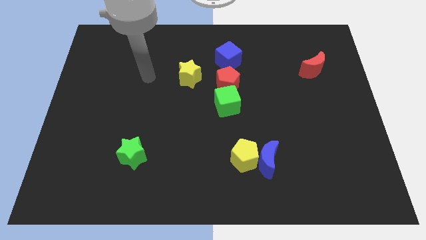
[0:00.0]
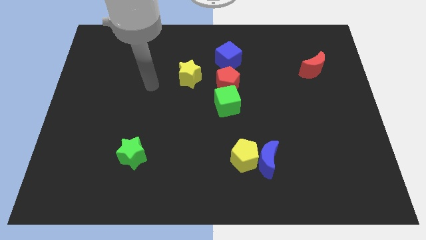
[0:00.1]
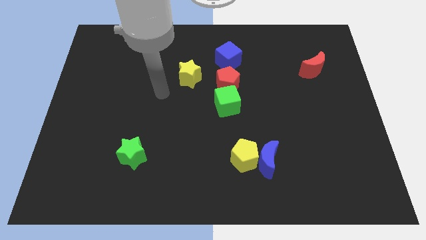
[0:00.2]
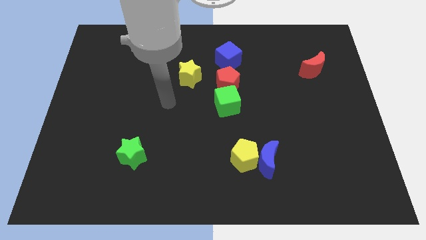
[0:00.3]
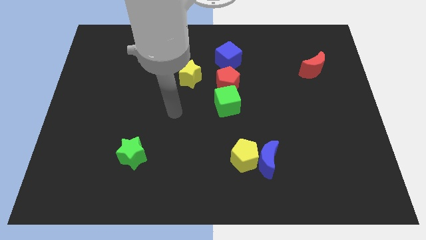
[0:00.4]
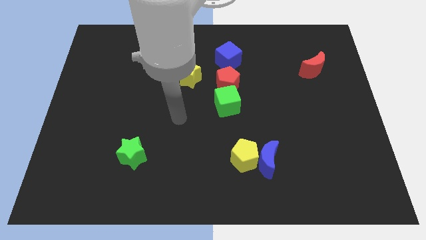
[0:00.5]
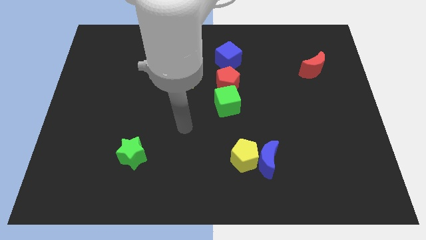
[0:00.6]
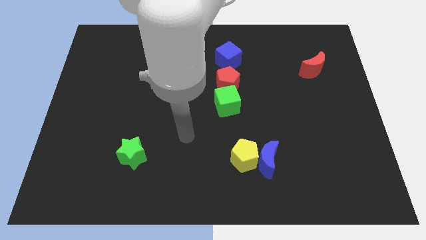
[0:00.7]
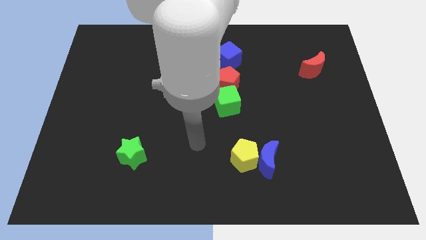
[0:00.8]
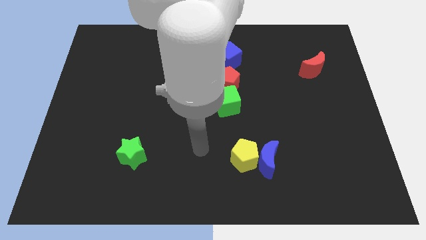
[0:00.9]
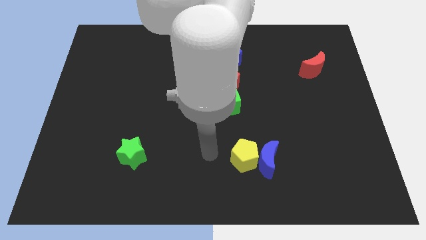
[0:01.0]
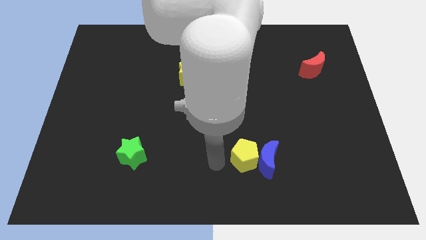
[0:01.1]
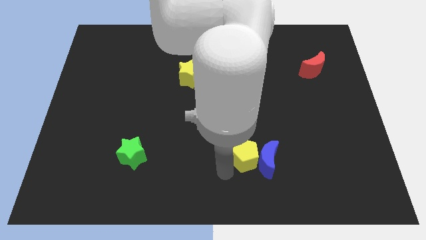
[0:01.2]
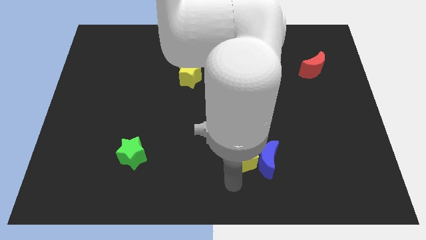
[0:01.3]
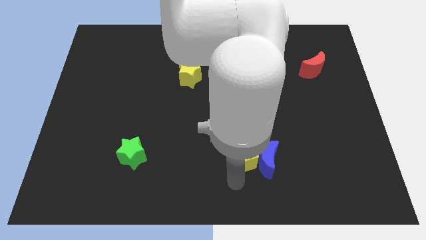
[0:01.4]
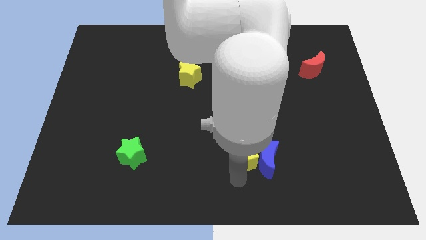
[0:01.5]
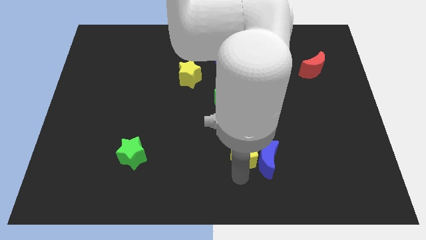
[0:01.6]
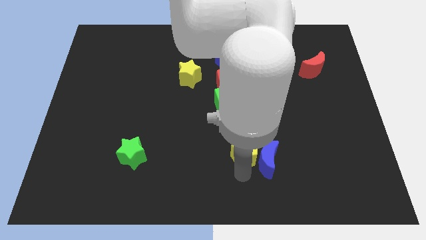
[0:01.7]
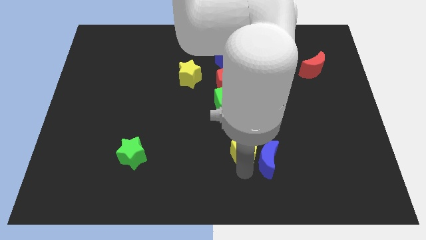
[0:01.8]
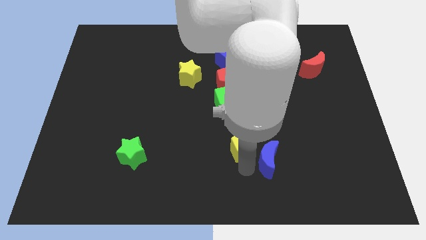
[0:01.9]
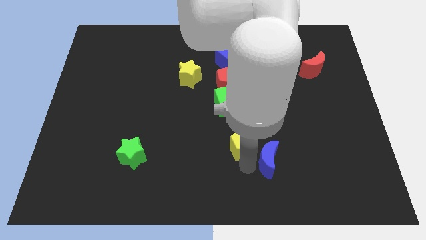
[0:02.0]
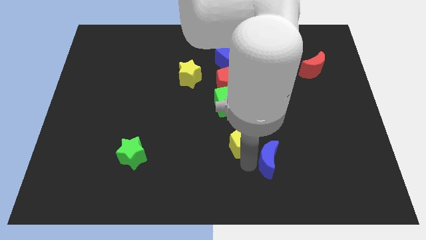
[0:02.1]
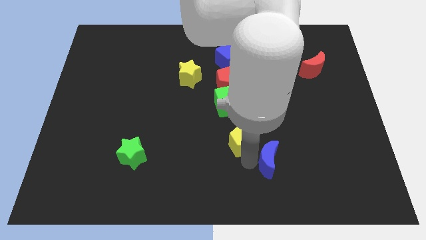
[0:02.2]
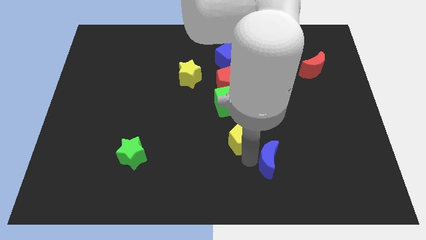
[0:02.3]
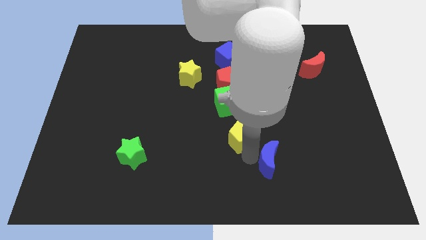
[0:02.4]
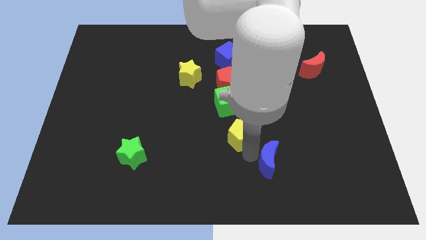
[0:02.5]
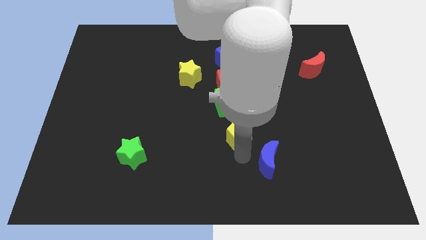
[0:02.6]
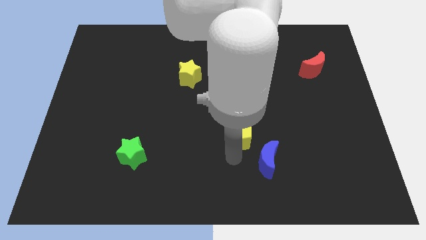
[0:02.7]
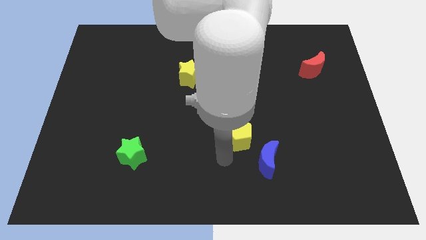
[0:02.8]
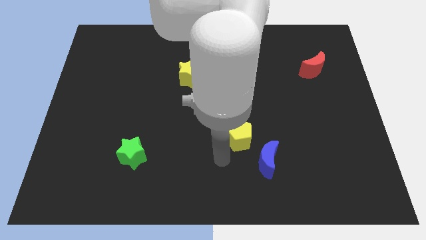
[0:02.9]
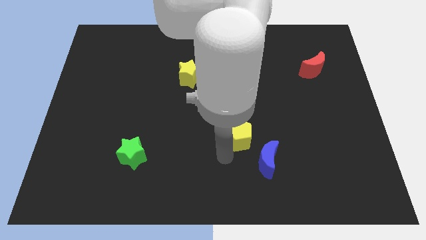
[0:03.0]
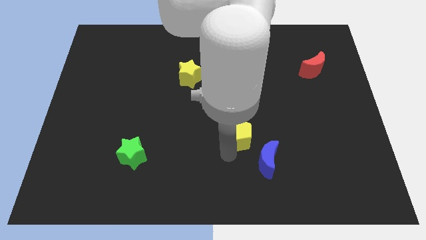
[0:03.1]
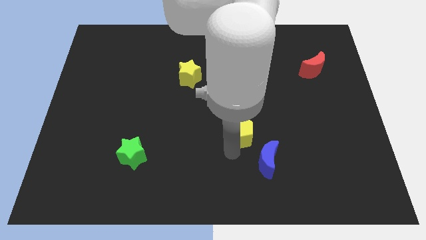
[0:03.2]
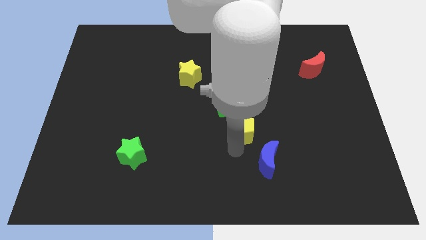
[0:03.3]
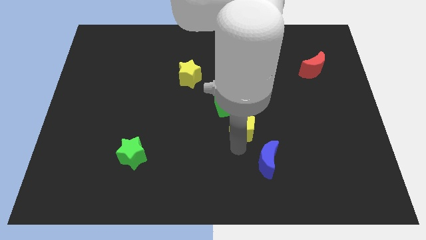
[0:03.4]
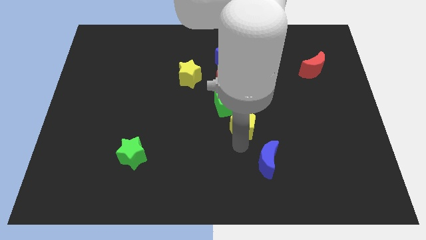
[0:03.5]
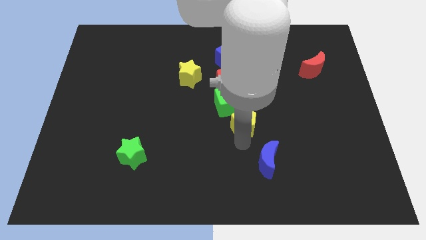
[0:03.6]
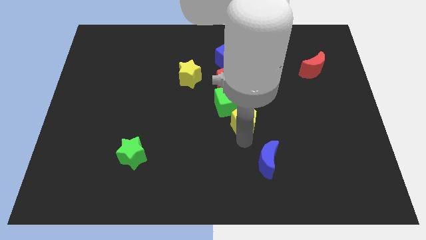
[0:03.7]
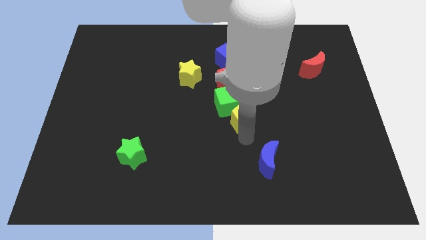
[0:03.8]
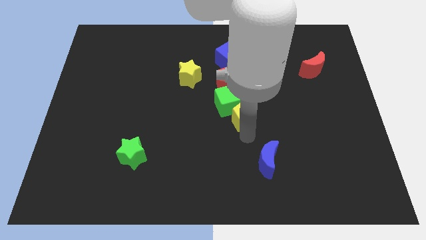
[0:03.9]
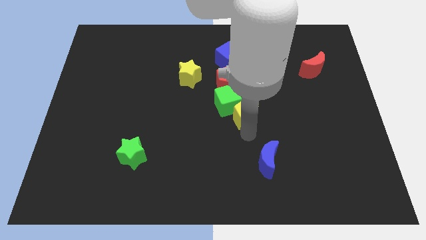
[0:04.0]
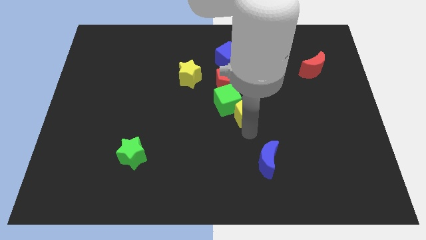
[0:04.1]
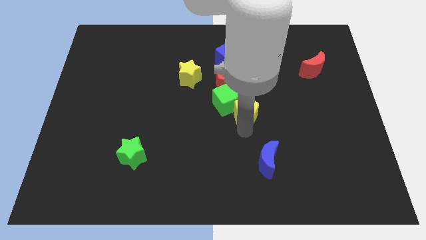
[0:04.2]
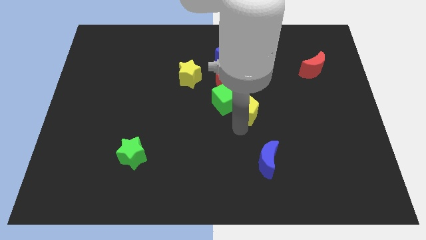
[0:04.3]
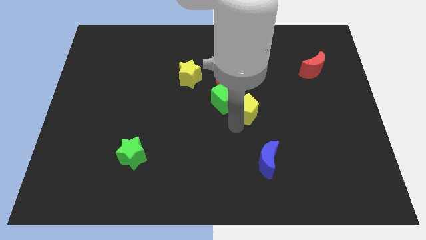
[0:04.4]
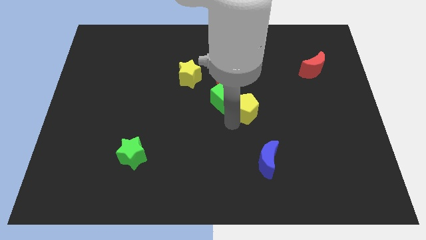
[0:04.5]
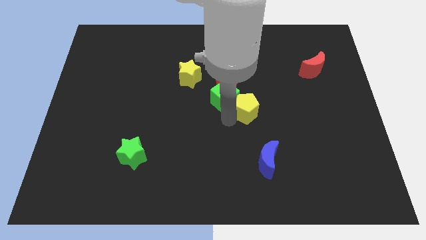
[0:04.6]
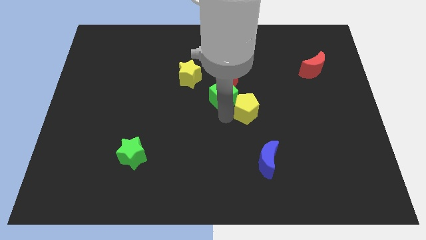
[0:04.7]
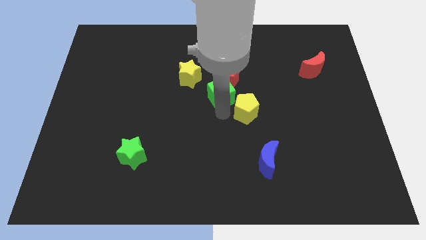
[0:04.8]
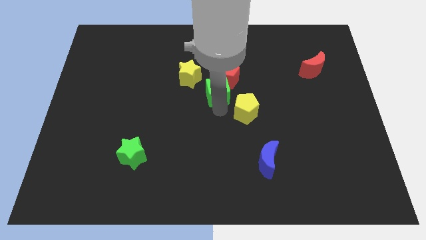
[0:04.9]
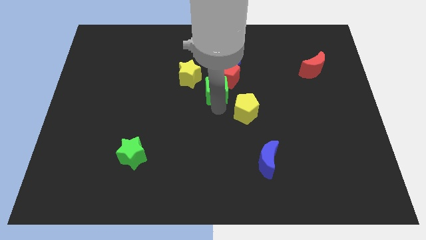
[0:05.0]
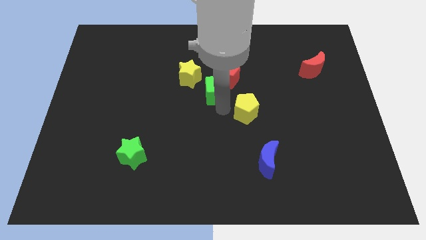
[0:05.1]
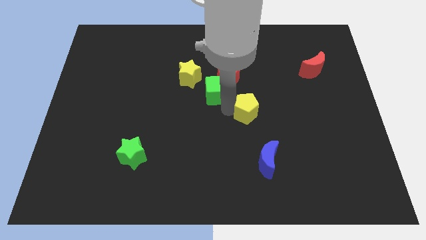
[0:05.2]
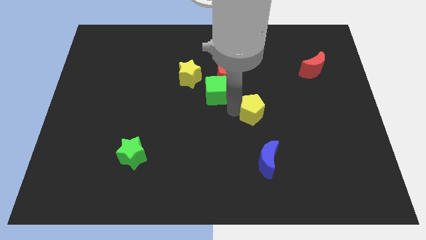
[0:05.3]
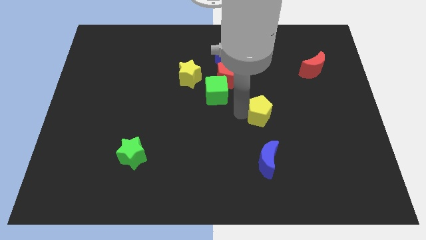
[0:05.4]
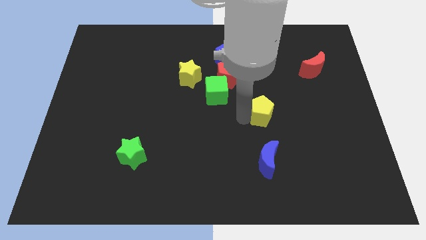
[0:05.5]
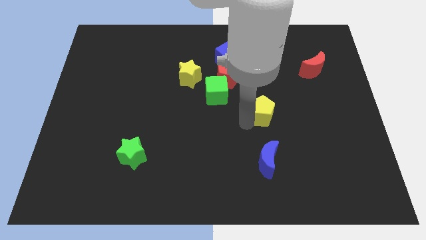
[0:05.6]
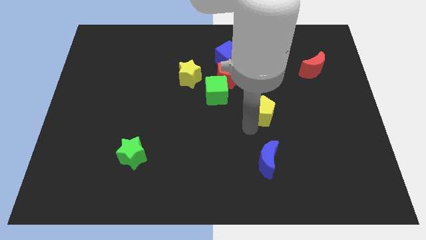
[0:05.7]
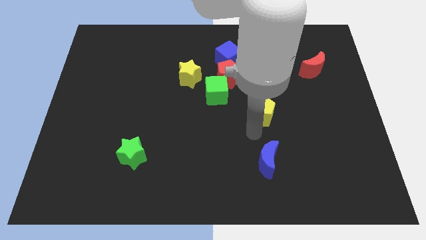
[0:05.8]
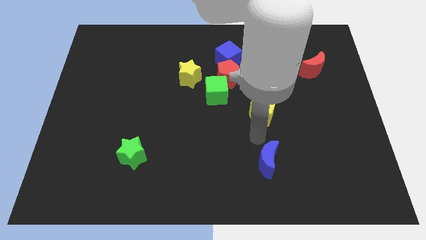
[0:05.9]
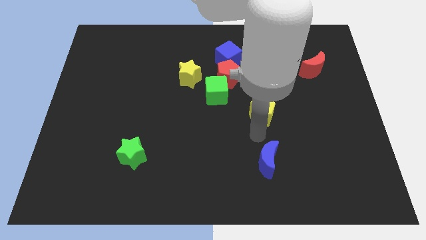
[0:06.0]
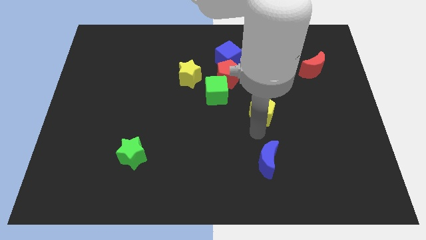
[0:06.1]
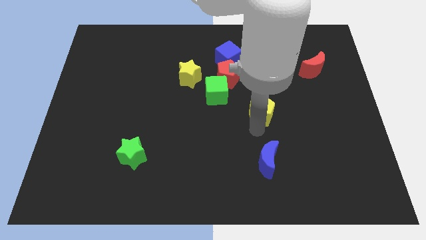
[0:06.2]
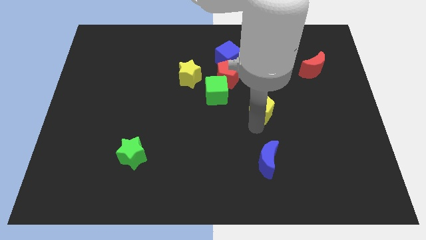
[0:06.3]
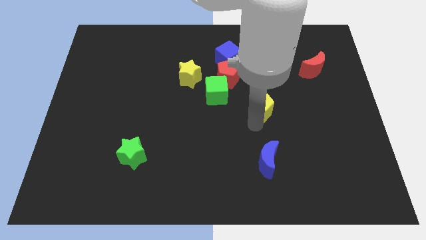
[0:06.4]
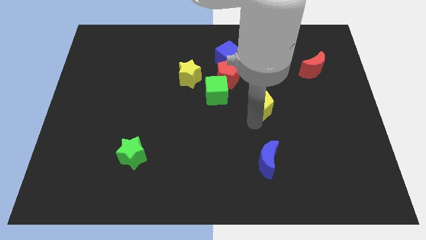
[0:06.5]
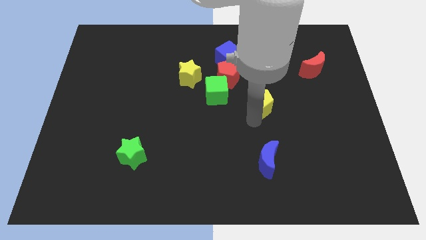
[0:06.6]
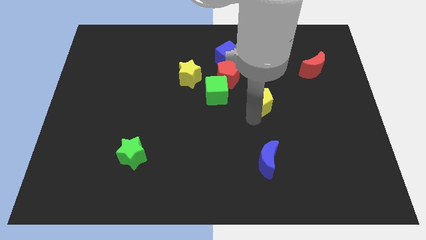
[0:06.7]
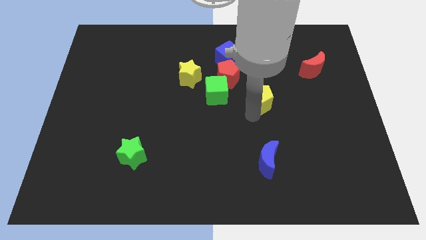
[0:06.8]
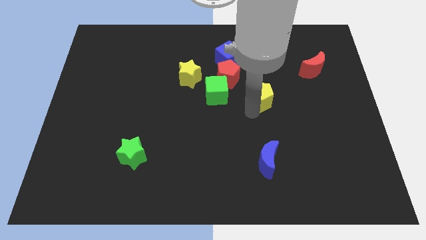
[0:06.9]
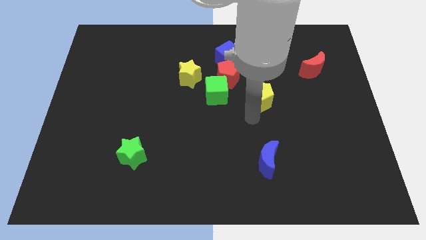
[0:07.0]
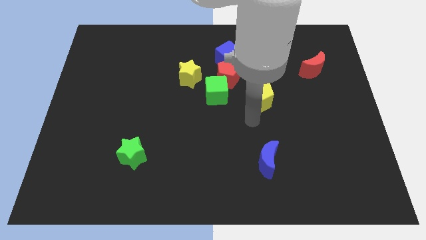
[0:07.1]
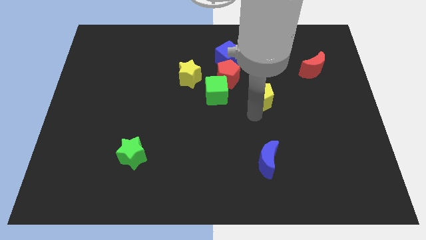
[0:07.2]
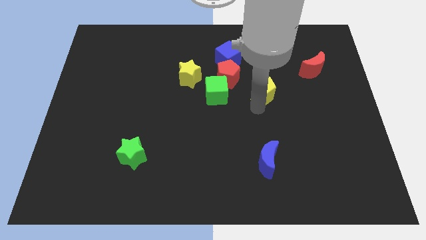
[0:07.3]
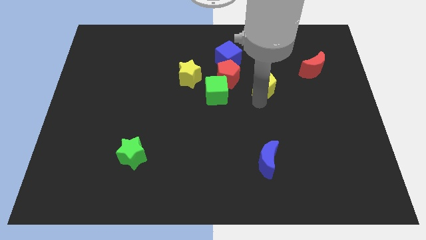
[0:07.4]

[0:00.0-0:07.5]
move the yellow pentagon just right of the red pentagon
